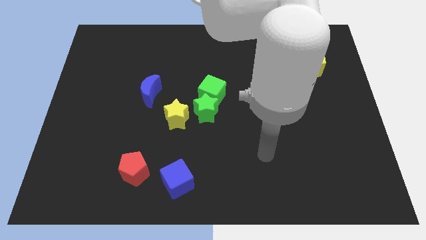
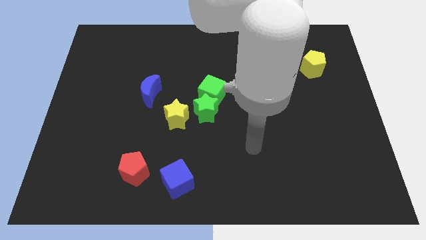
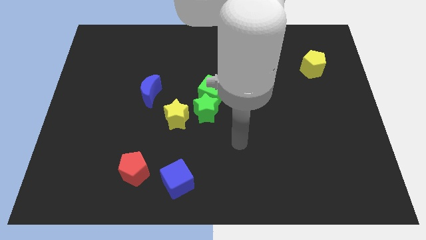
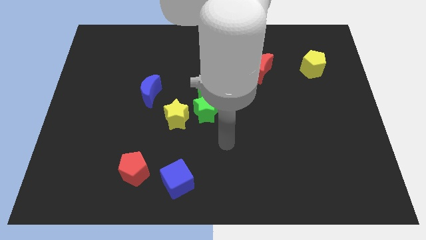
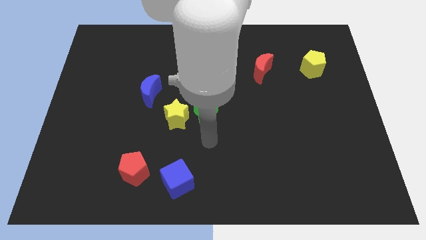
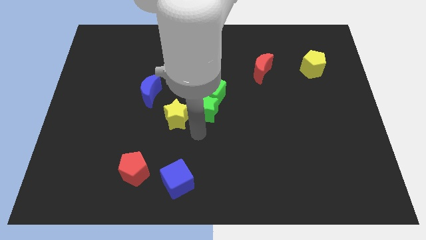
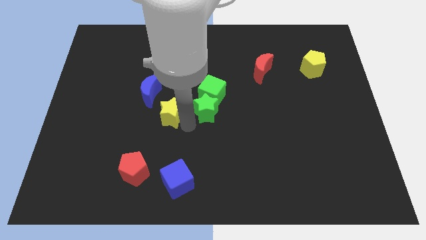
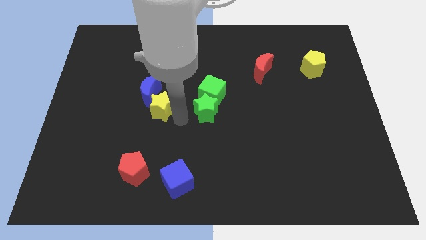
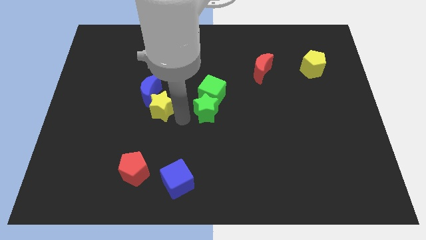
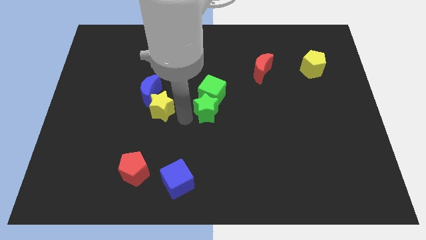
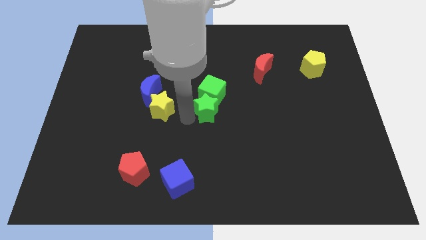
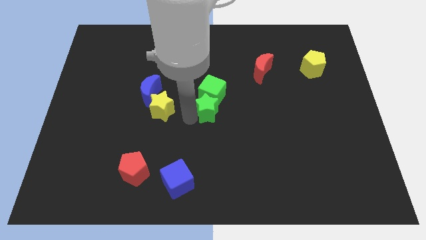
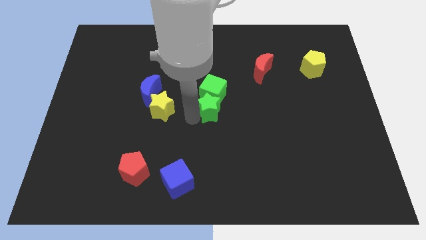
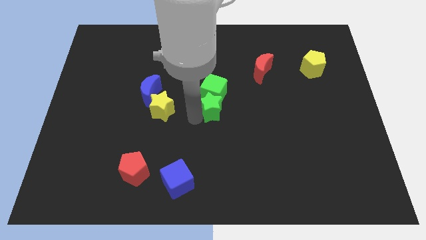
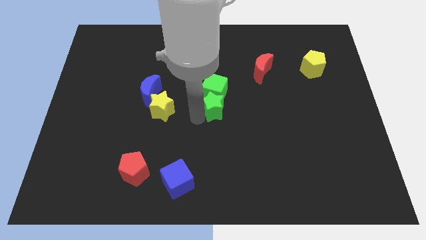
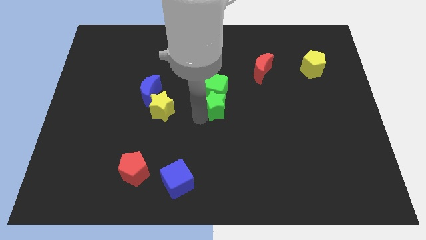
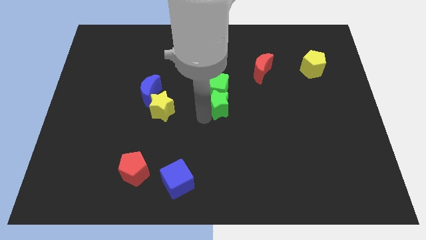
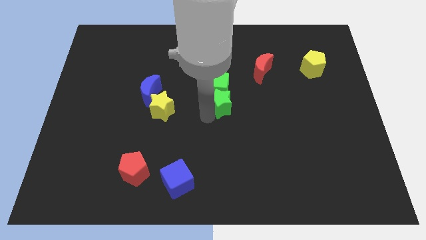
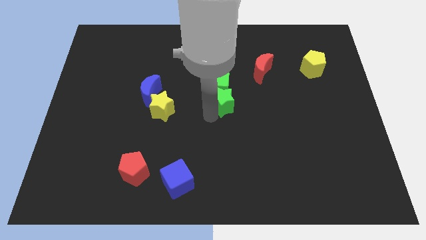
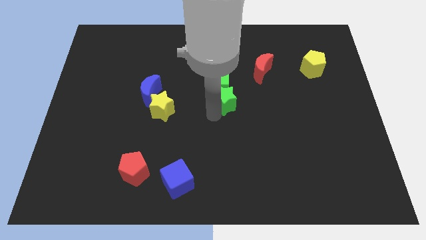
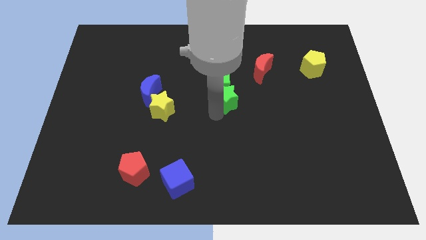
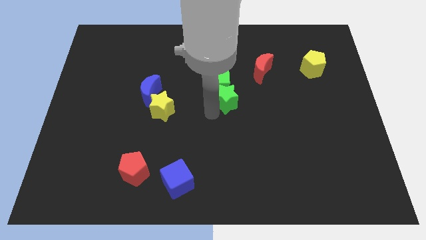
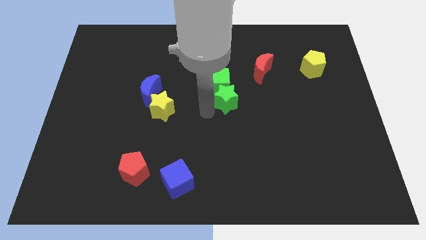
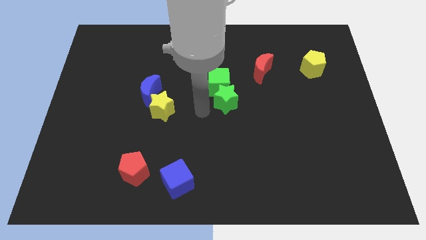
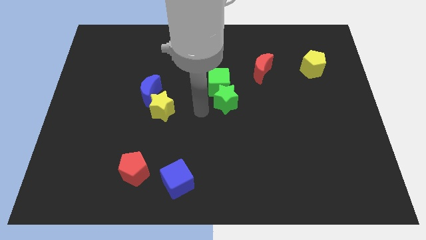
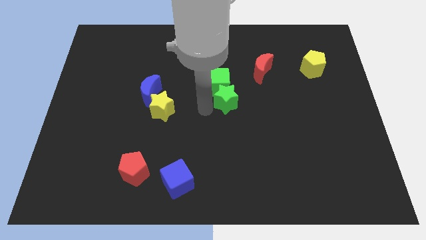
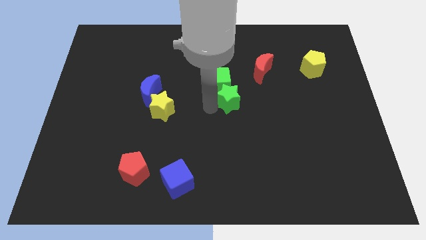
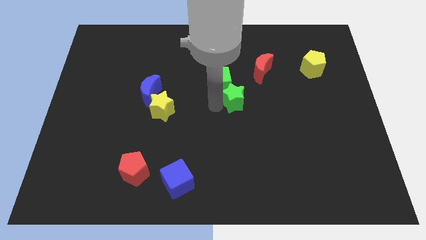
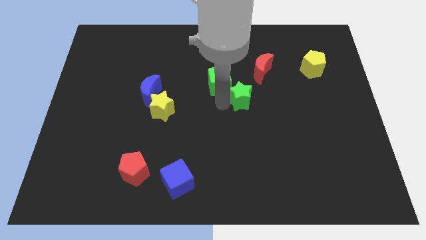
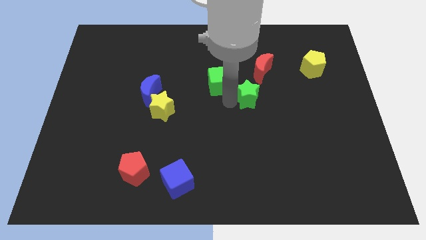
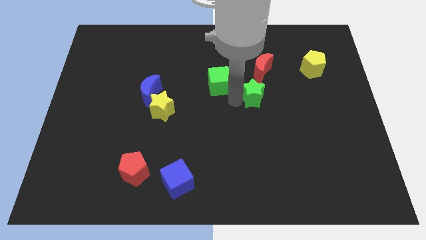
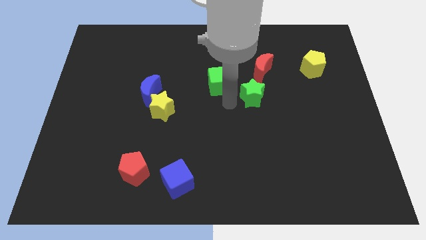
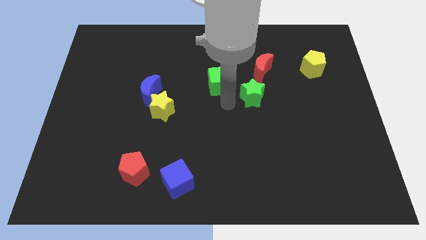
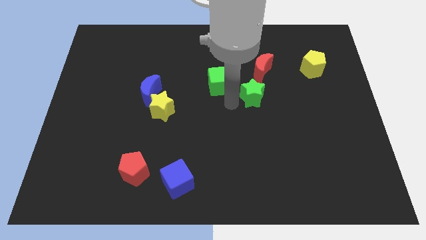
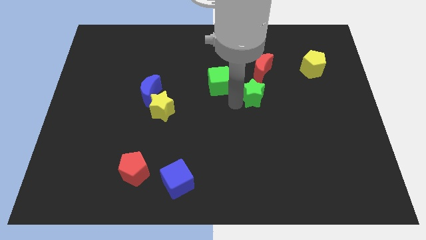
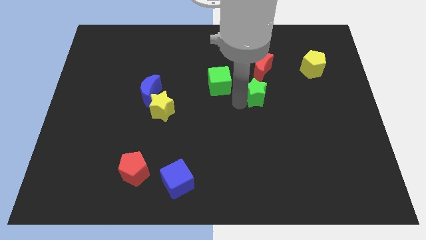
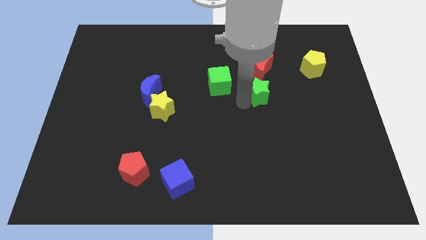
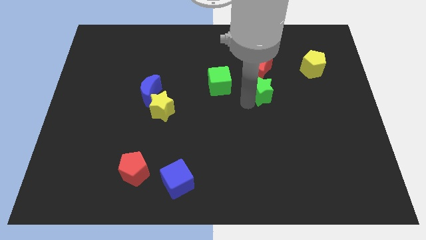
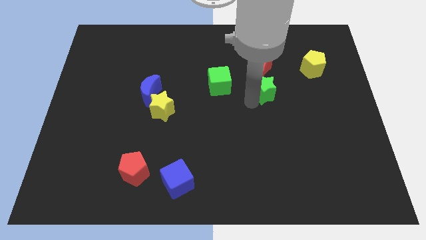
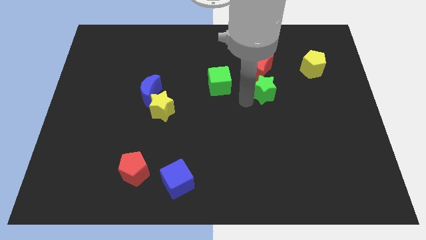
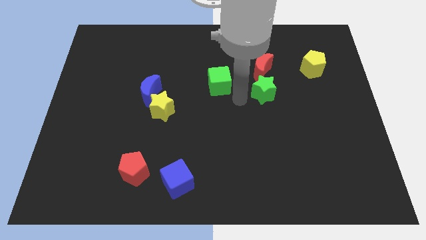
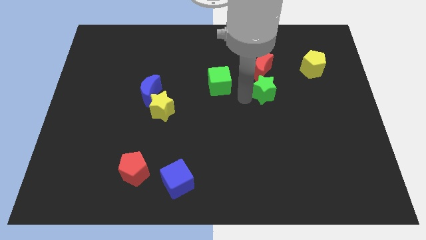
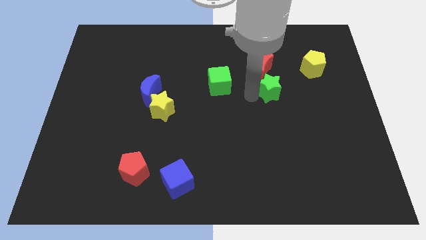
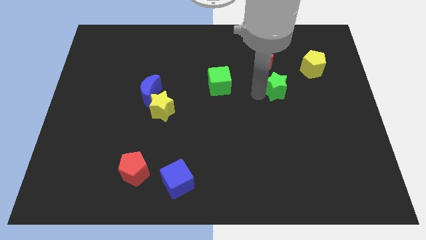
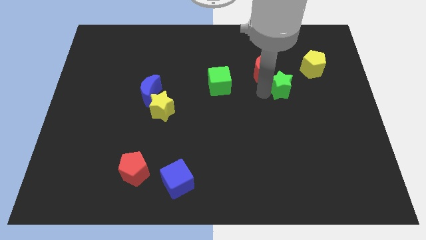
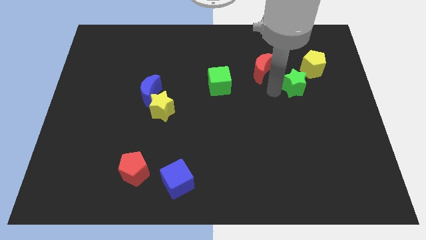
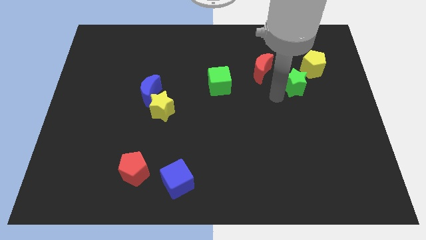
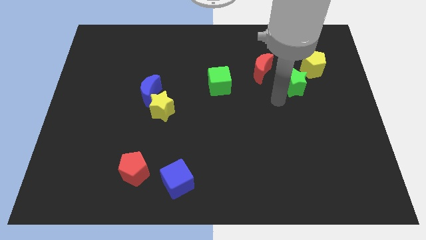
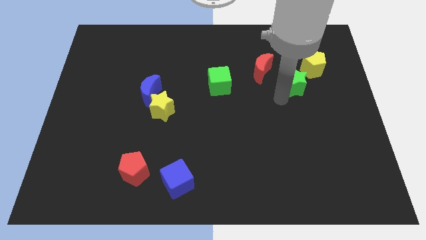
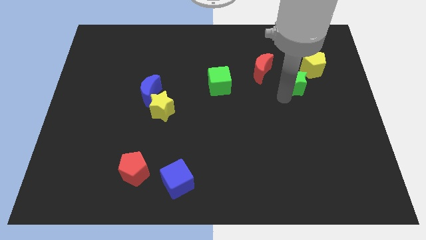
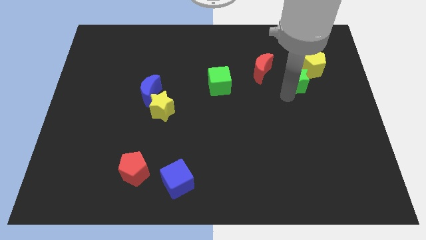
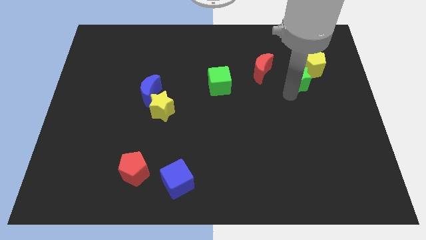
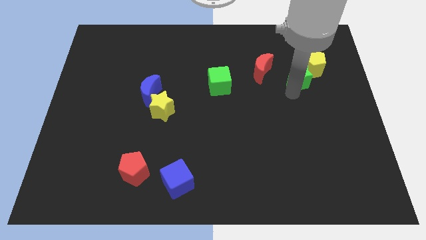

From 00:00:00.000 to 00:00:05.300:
push the green star close to the yellow pentagon

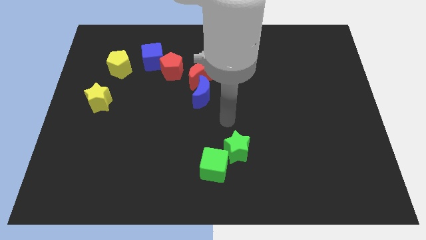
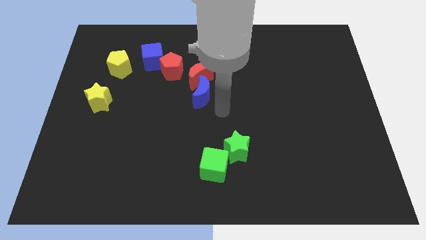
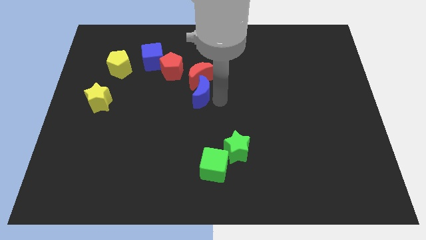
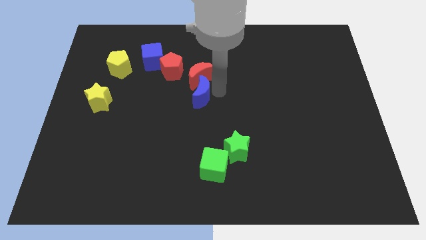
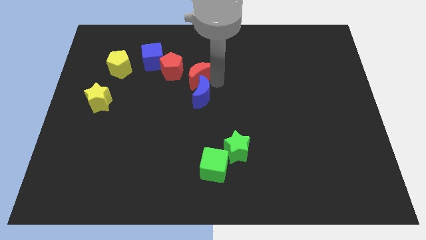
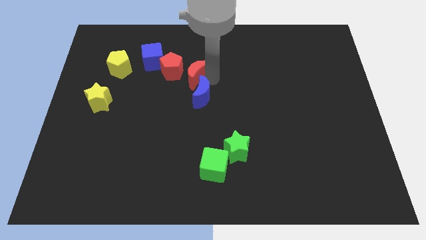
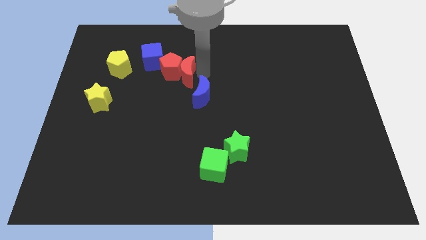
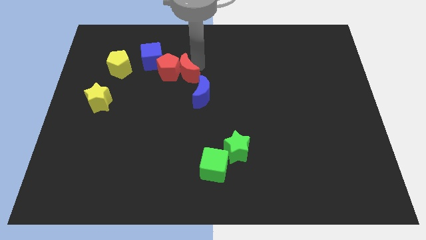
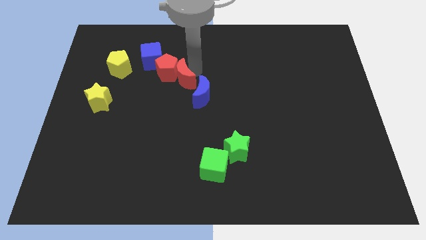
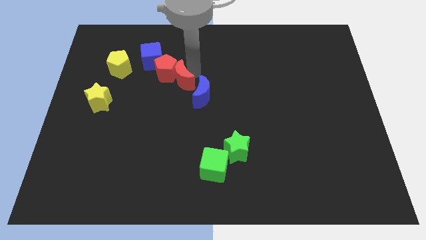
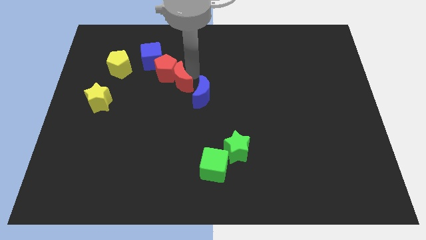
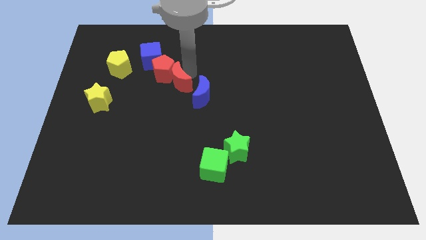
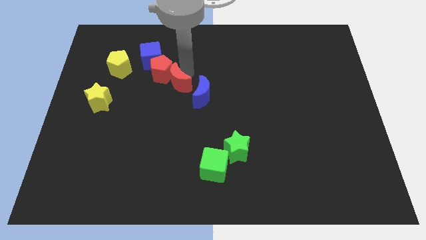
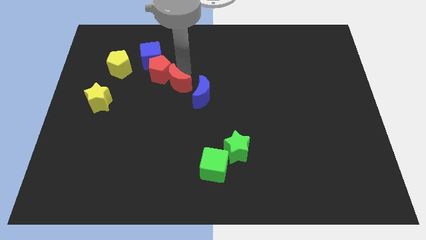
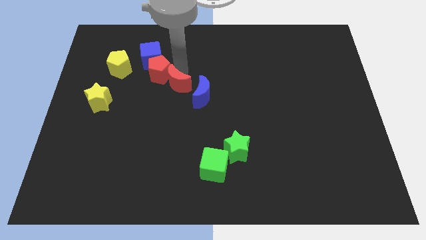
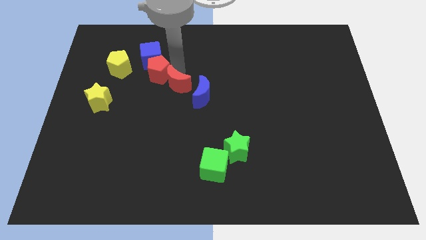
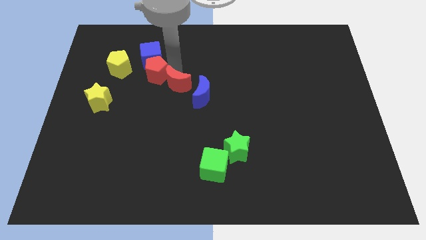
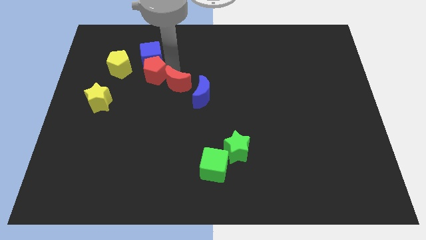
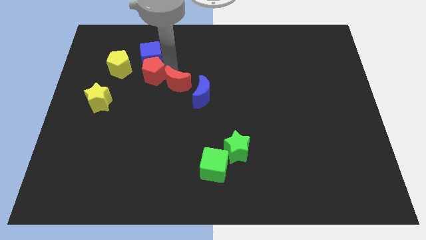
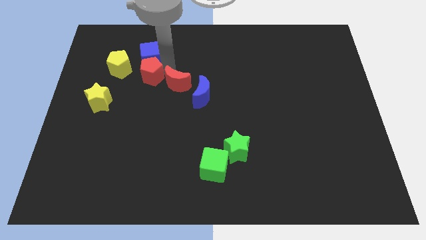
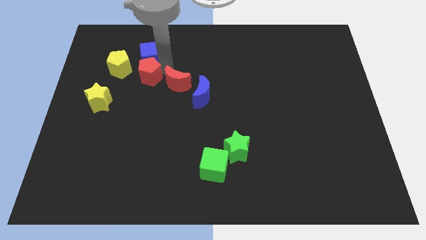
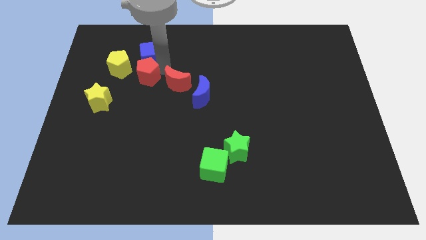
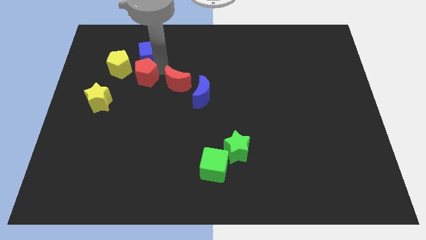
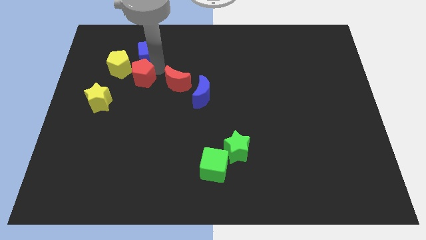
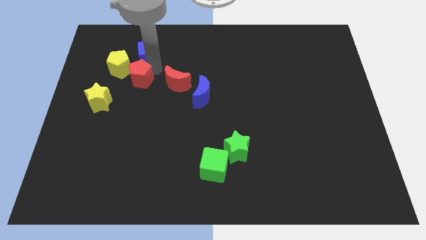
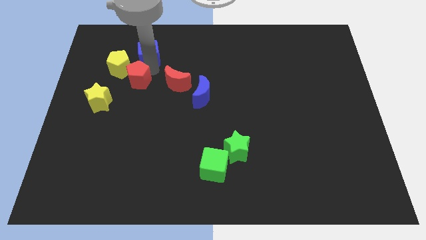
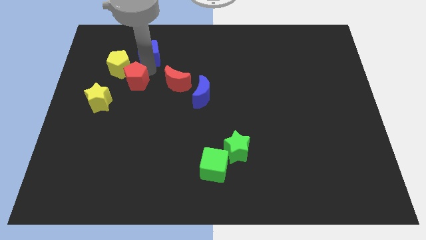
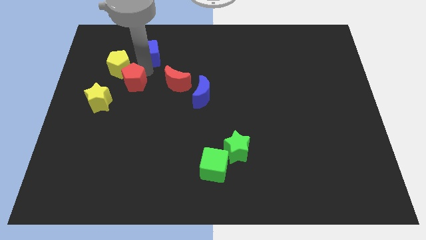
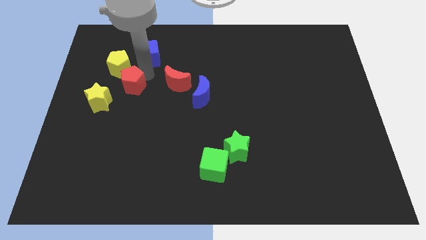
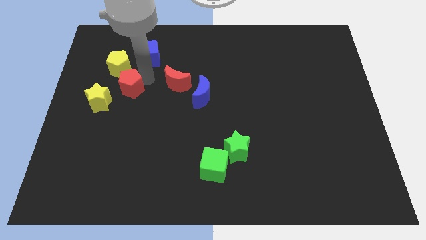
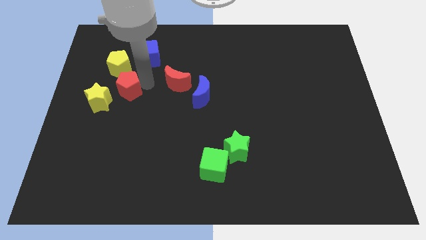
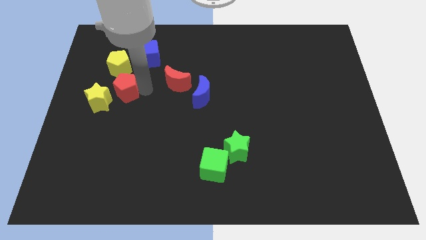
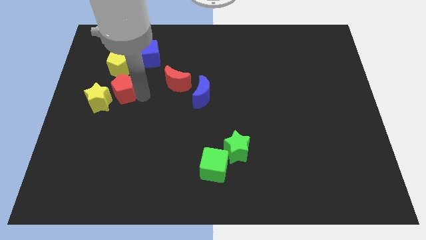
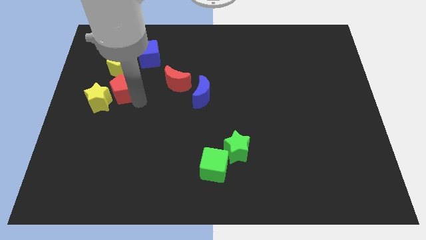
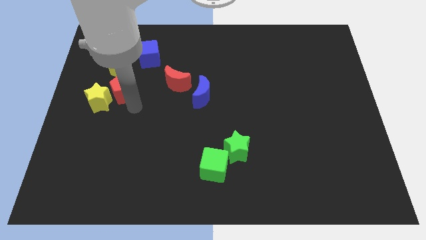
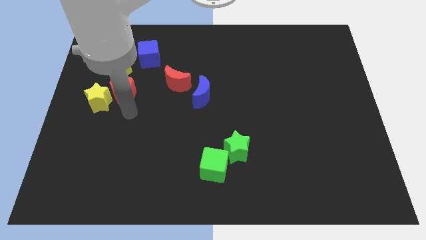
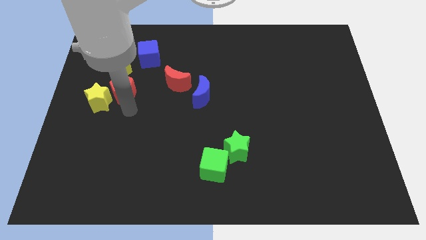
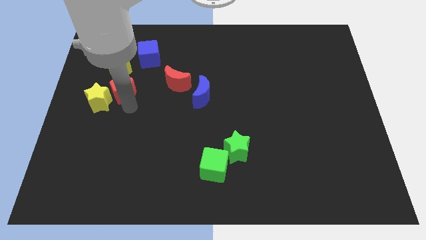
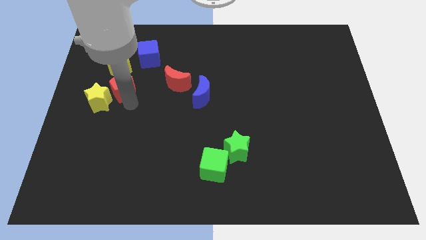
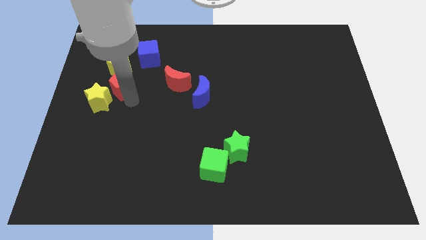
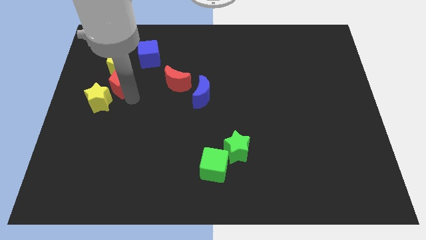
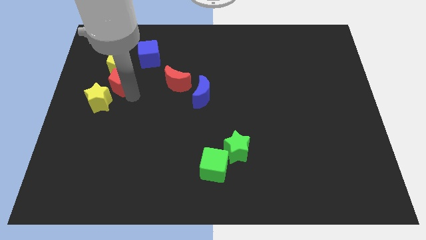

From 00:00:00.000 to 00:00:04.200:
move the red pentagon to the yellow pentagon
